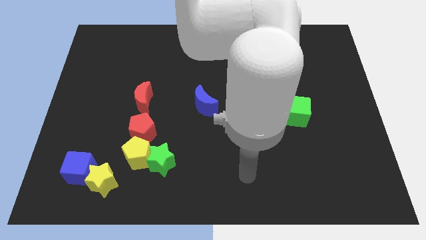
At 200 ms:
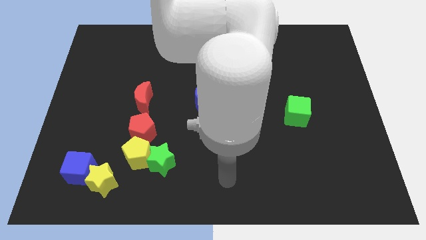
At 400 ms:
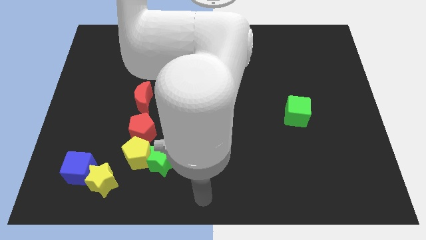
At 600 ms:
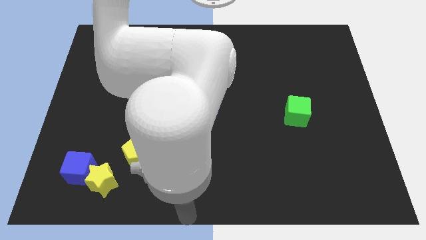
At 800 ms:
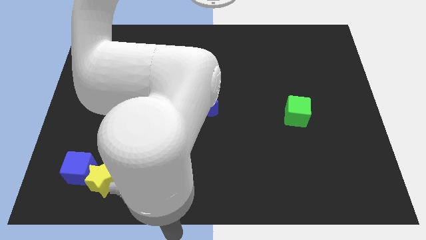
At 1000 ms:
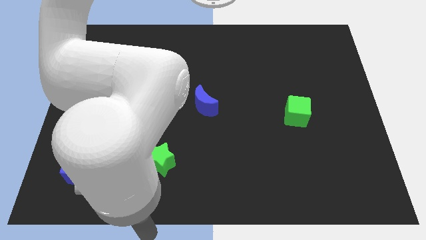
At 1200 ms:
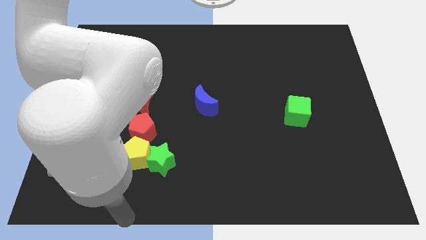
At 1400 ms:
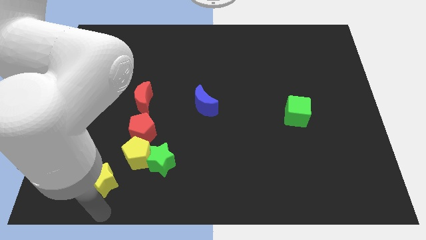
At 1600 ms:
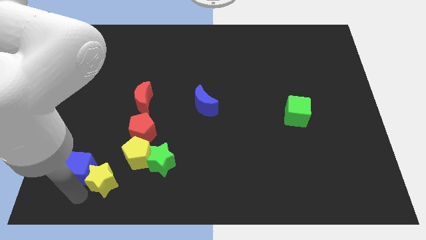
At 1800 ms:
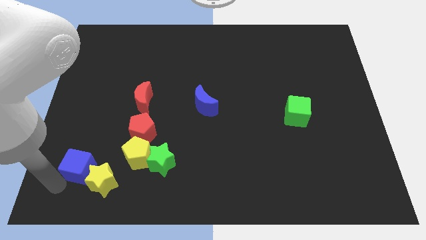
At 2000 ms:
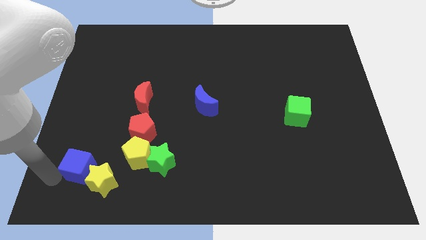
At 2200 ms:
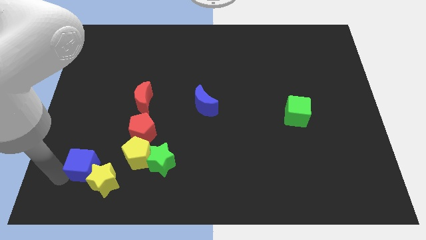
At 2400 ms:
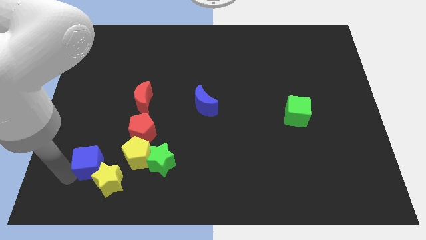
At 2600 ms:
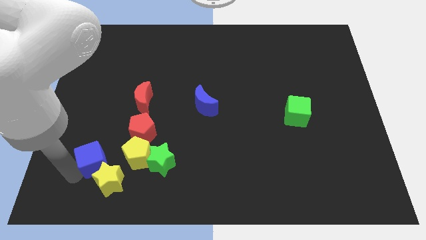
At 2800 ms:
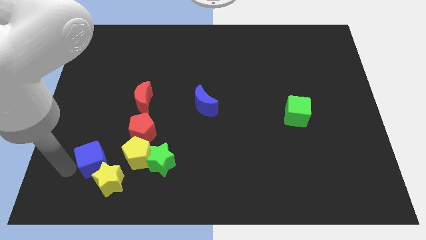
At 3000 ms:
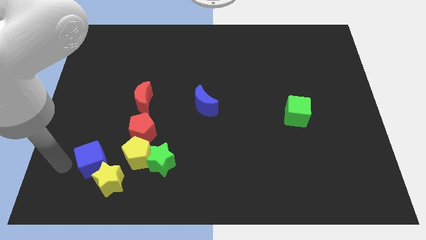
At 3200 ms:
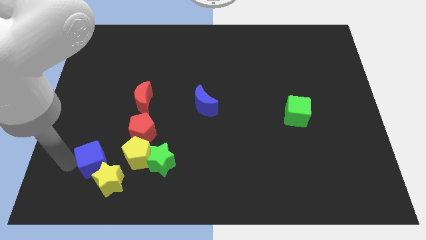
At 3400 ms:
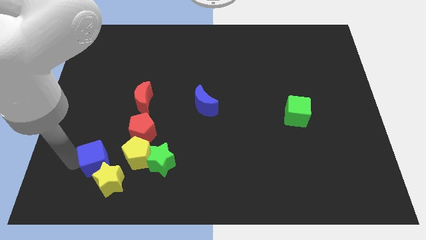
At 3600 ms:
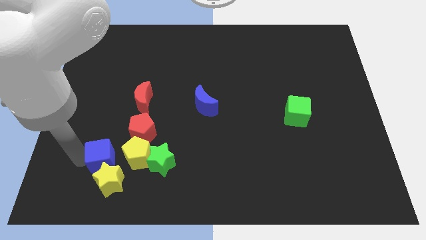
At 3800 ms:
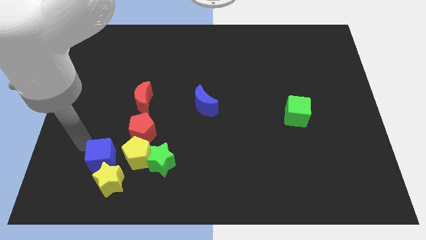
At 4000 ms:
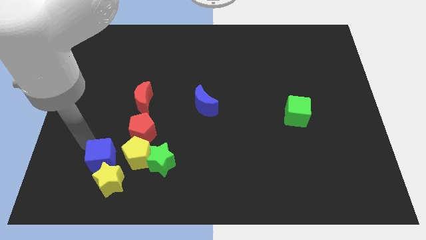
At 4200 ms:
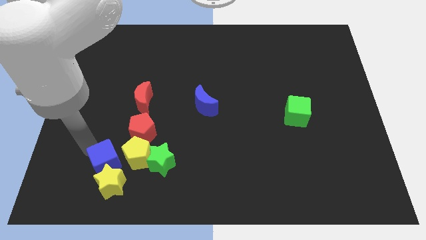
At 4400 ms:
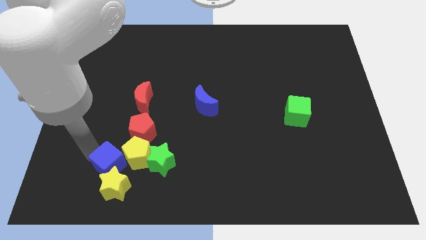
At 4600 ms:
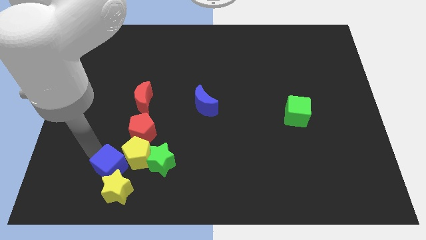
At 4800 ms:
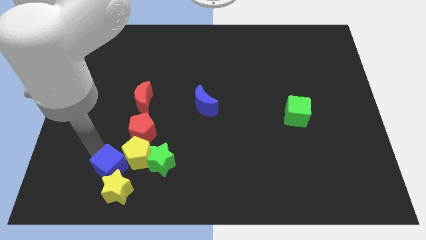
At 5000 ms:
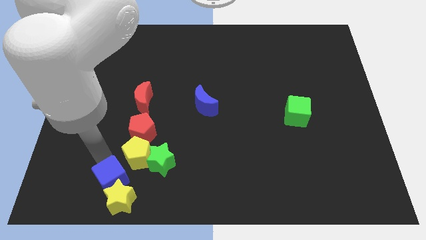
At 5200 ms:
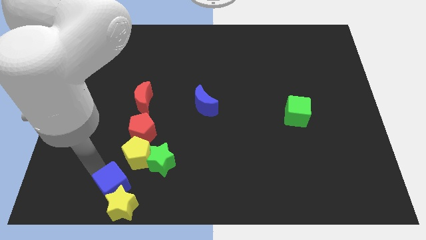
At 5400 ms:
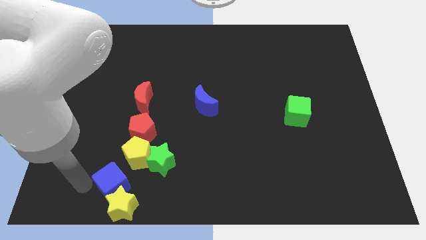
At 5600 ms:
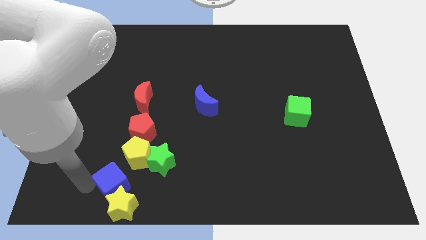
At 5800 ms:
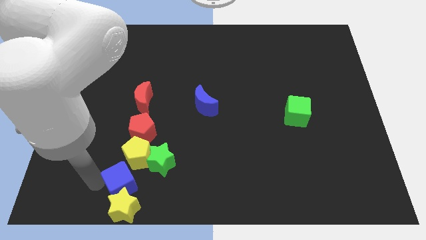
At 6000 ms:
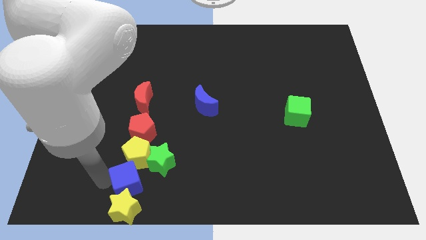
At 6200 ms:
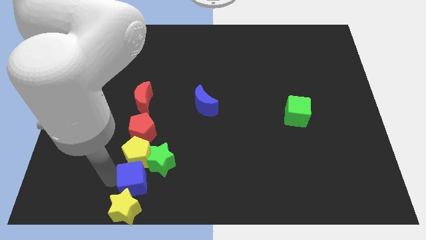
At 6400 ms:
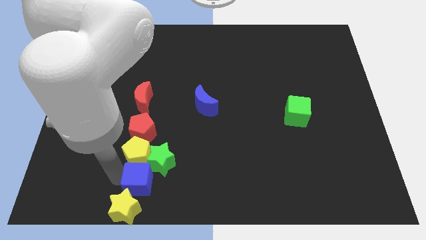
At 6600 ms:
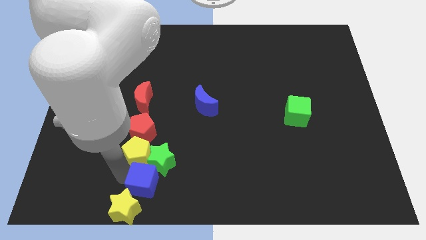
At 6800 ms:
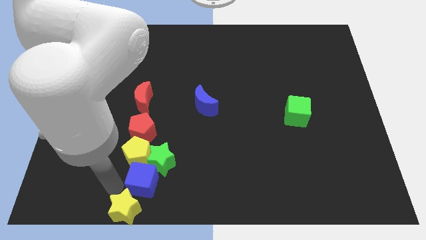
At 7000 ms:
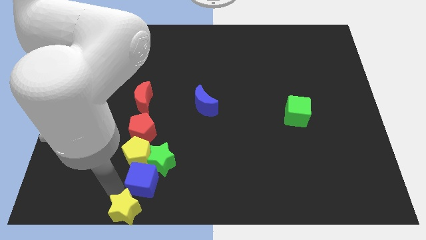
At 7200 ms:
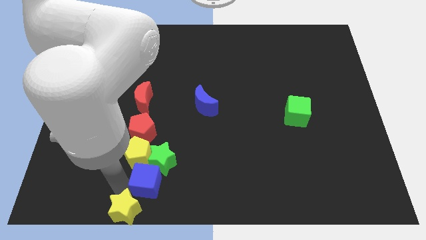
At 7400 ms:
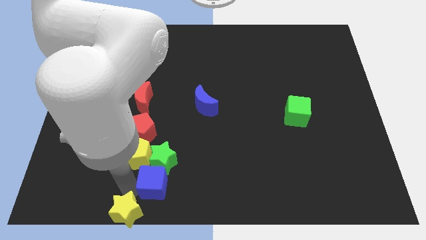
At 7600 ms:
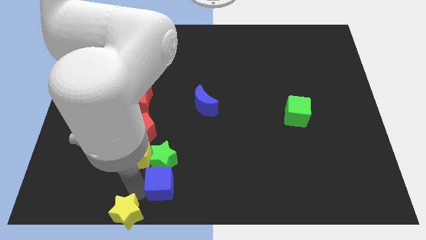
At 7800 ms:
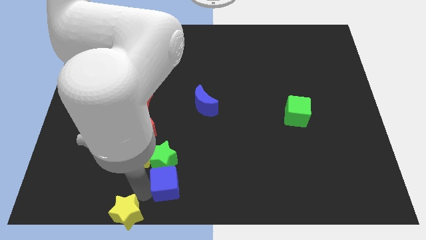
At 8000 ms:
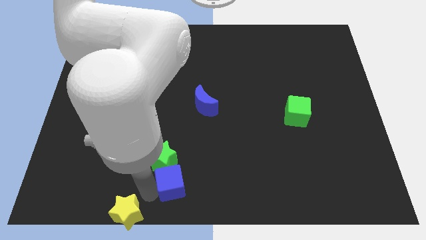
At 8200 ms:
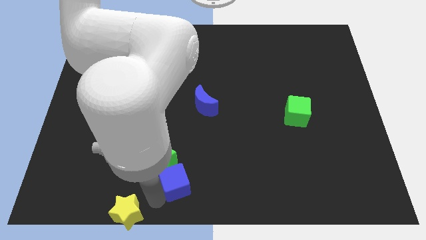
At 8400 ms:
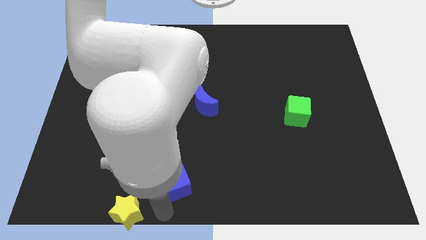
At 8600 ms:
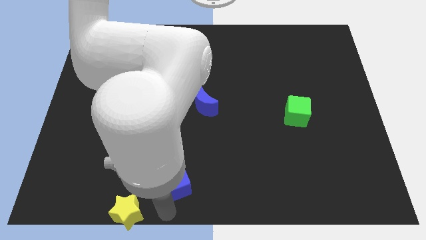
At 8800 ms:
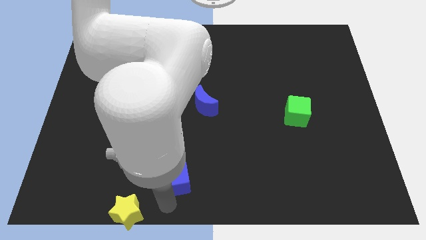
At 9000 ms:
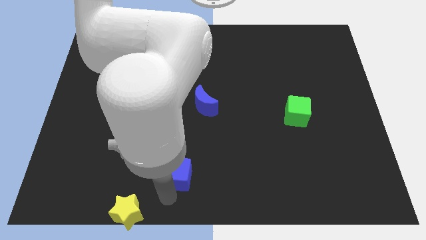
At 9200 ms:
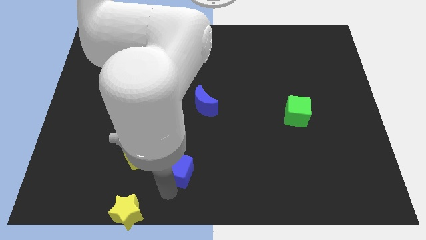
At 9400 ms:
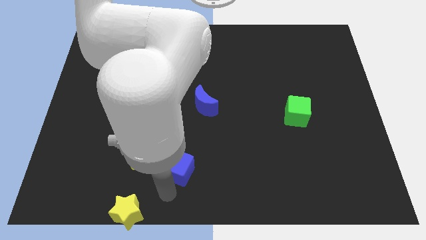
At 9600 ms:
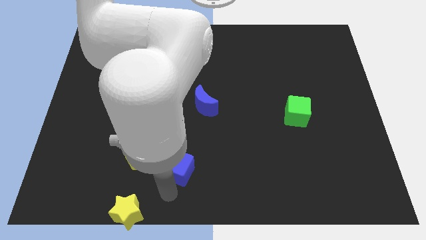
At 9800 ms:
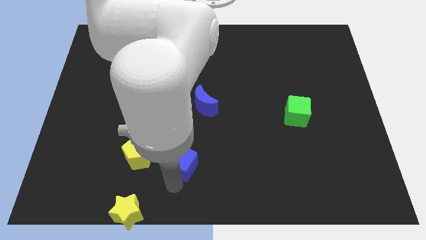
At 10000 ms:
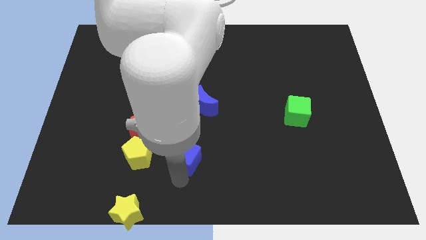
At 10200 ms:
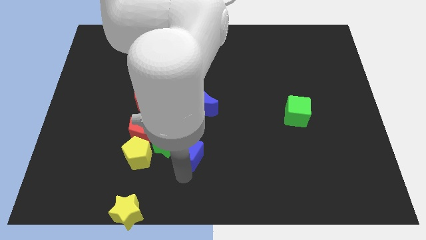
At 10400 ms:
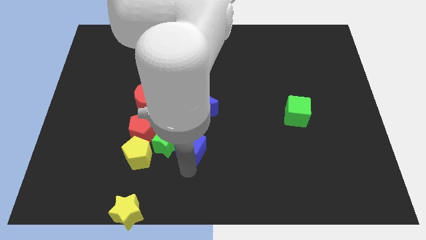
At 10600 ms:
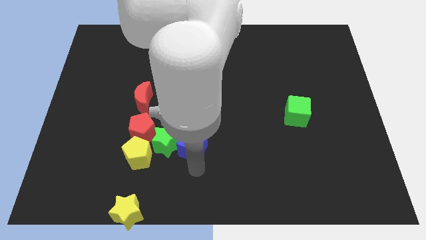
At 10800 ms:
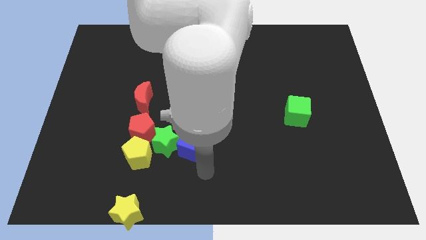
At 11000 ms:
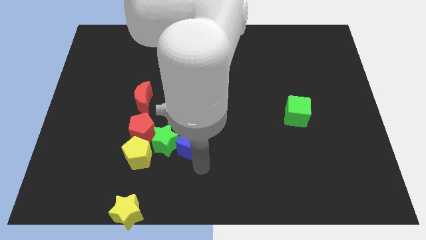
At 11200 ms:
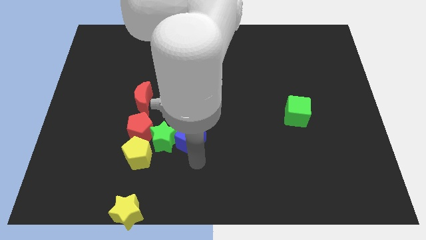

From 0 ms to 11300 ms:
put the blue cube to the bottom left side of the blue moon

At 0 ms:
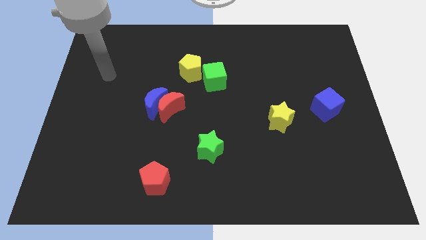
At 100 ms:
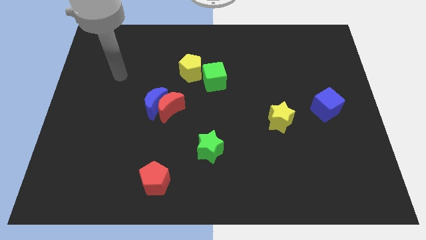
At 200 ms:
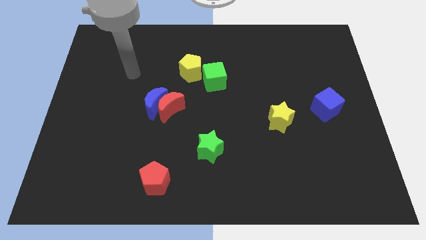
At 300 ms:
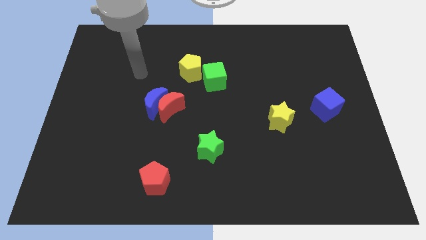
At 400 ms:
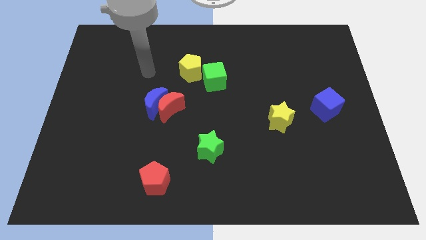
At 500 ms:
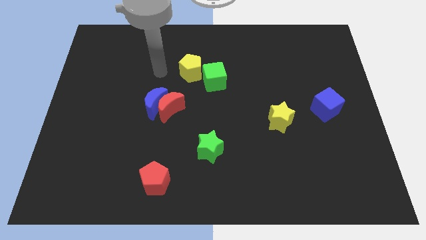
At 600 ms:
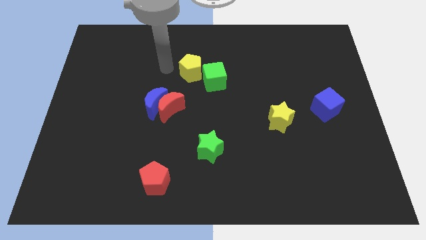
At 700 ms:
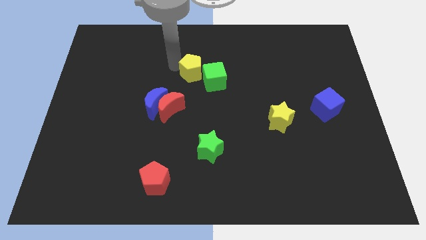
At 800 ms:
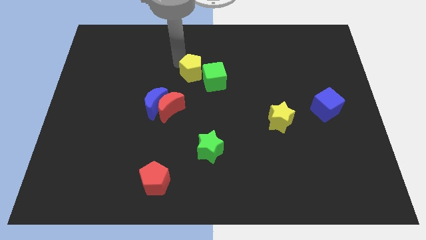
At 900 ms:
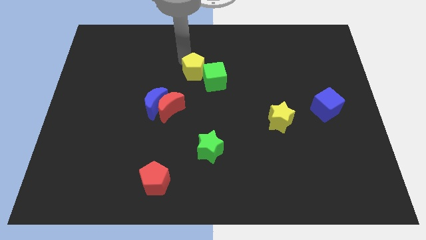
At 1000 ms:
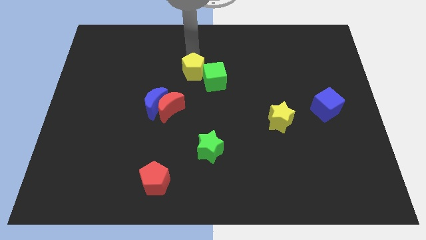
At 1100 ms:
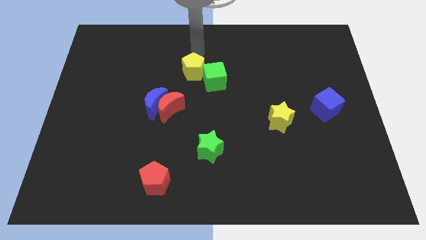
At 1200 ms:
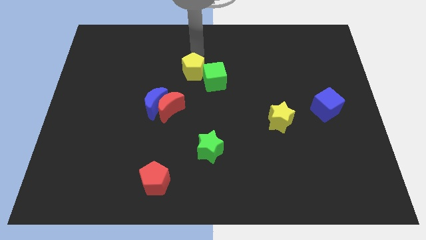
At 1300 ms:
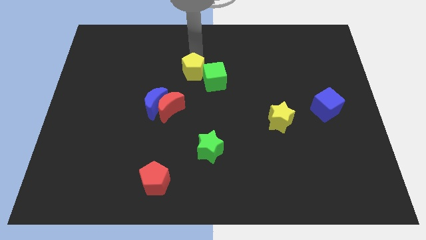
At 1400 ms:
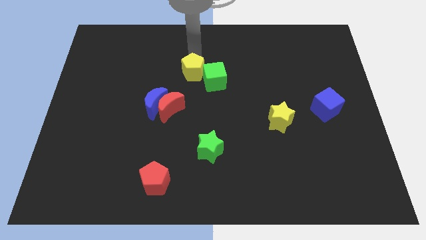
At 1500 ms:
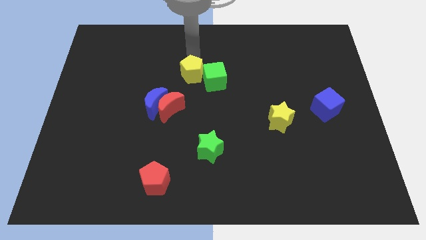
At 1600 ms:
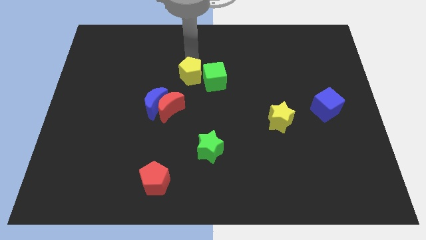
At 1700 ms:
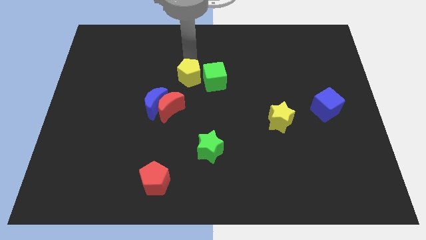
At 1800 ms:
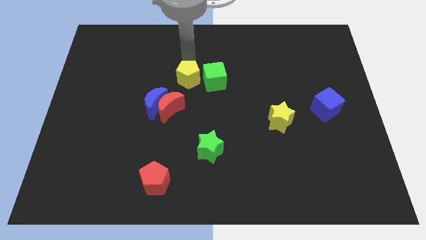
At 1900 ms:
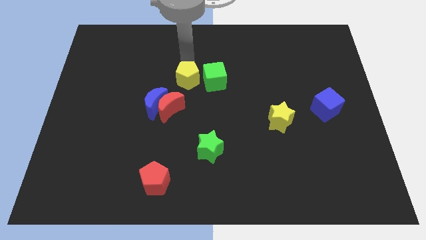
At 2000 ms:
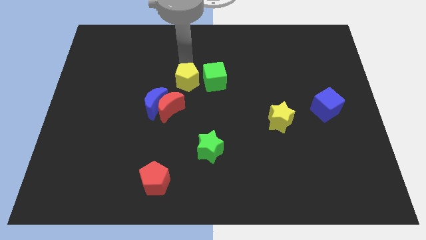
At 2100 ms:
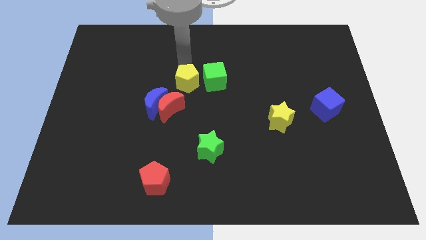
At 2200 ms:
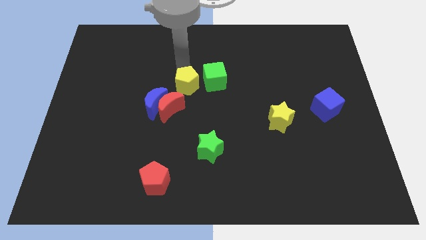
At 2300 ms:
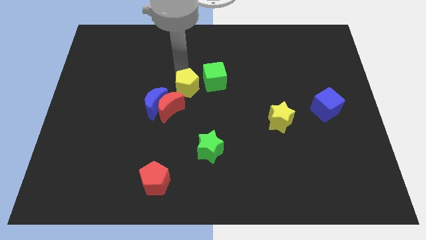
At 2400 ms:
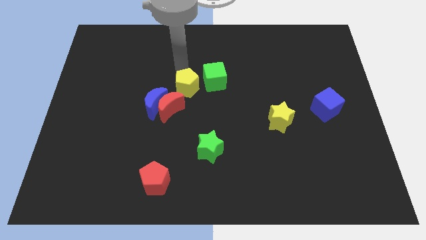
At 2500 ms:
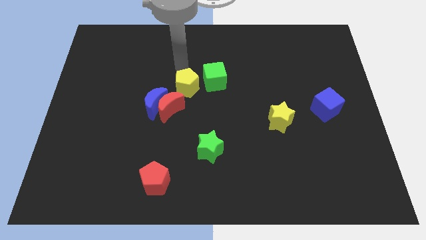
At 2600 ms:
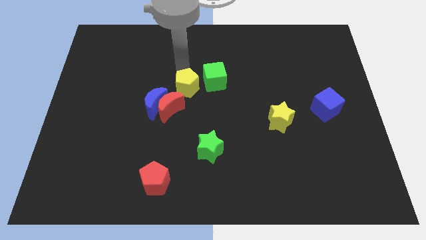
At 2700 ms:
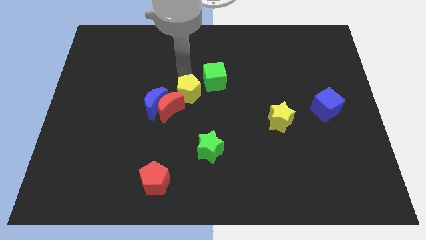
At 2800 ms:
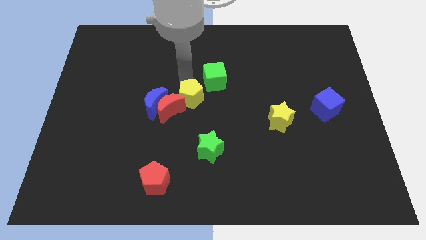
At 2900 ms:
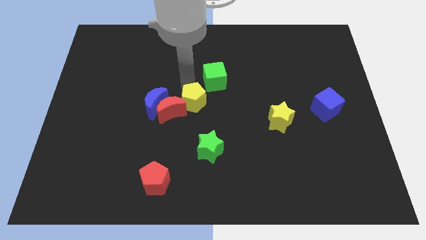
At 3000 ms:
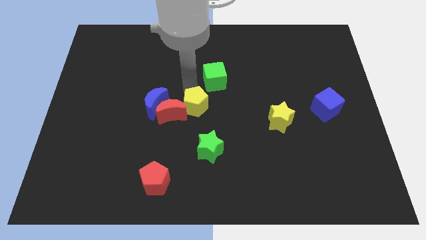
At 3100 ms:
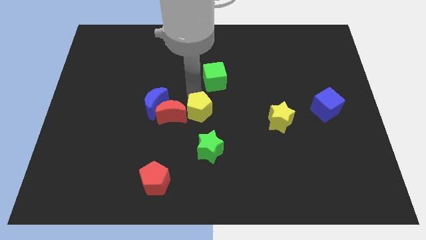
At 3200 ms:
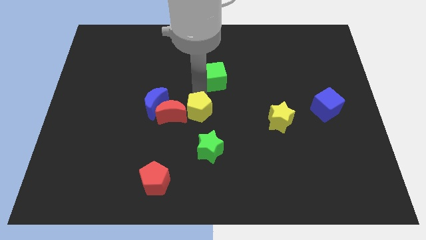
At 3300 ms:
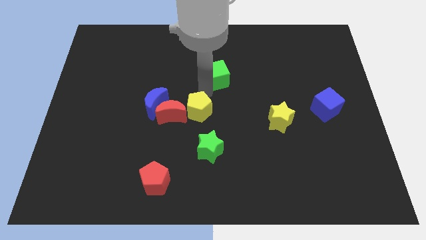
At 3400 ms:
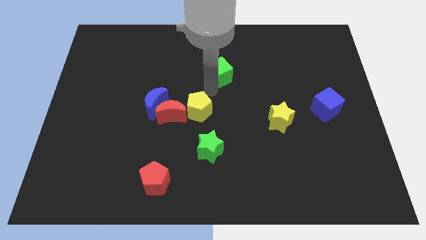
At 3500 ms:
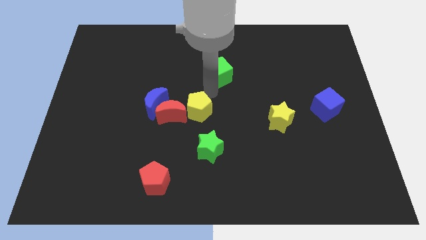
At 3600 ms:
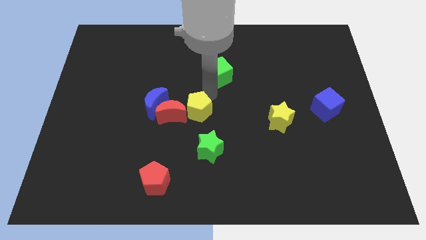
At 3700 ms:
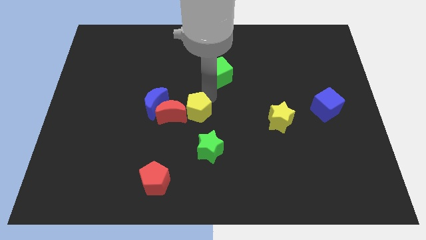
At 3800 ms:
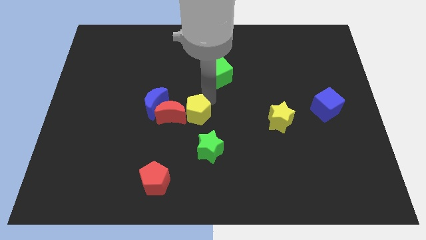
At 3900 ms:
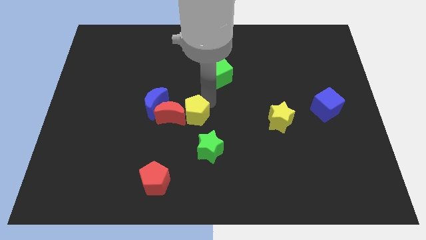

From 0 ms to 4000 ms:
move the yellow pentagon diagonally up and to the left of the green star
